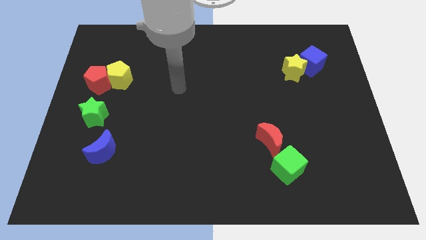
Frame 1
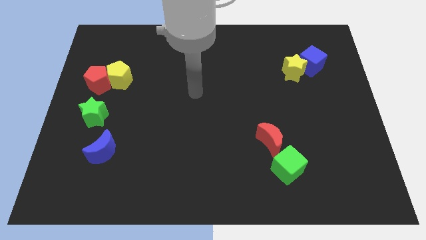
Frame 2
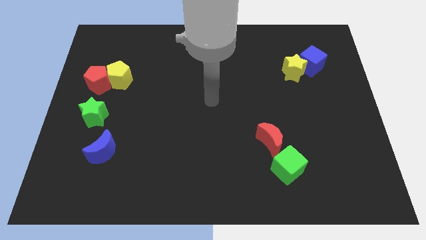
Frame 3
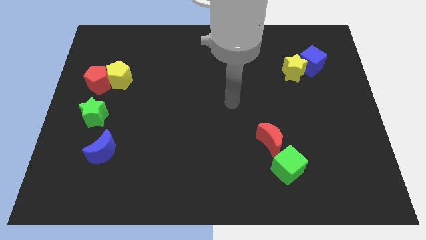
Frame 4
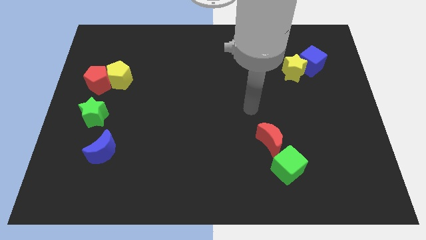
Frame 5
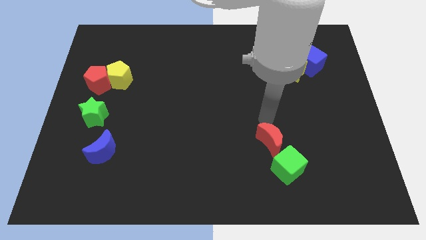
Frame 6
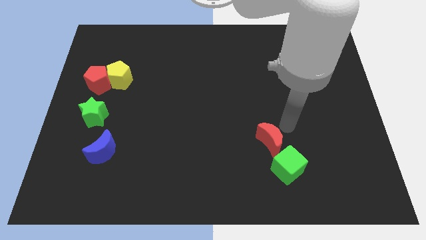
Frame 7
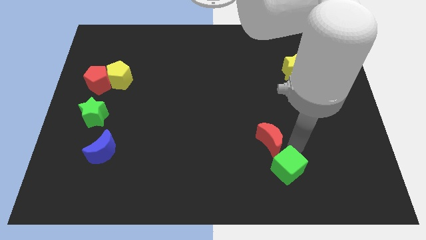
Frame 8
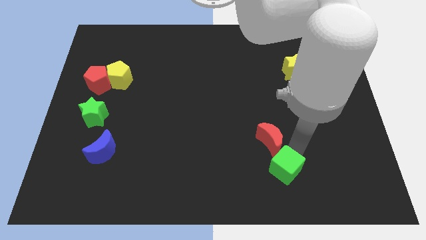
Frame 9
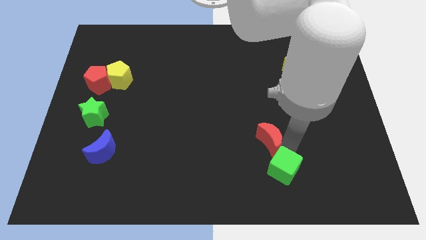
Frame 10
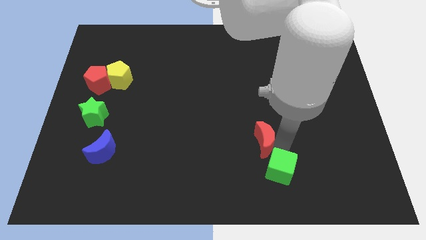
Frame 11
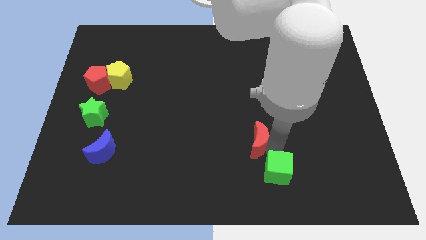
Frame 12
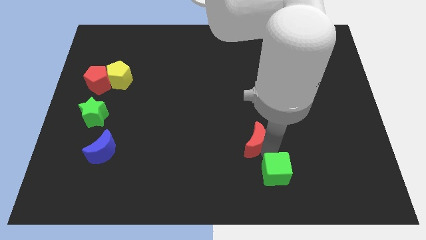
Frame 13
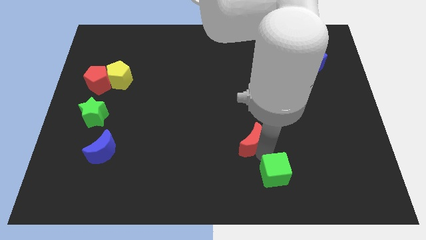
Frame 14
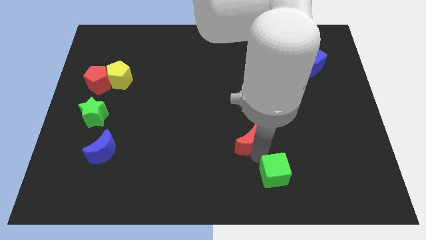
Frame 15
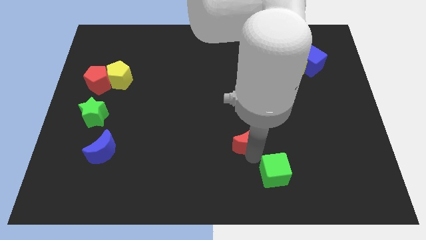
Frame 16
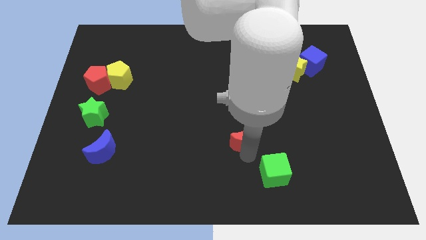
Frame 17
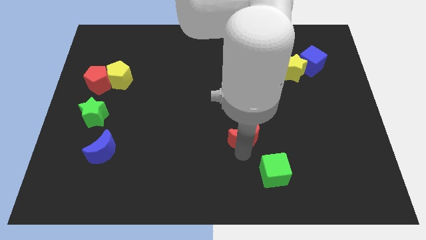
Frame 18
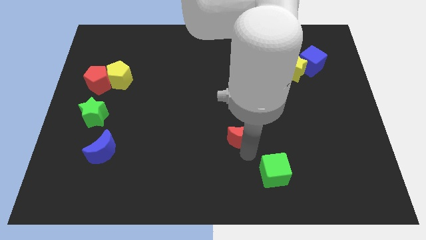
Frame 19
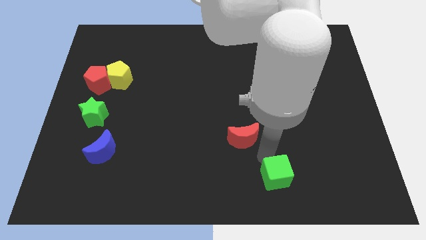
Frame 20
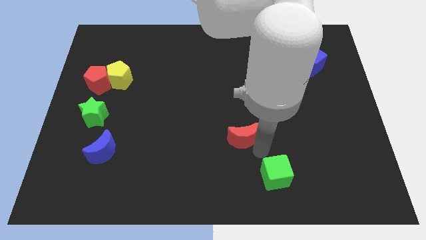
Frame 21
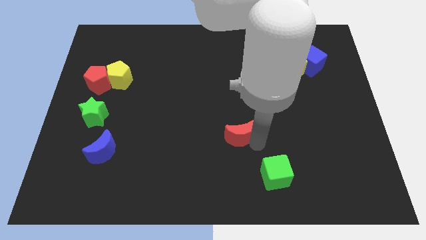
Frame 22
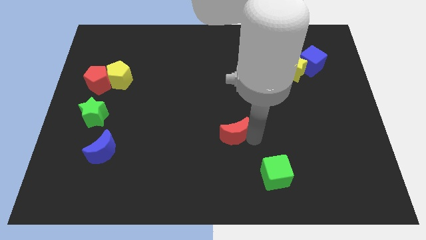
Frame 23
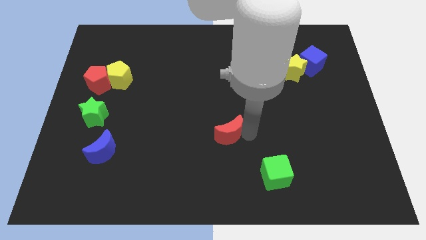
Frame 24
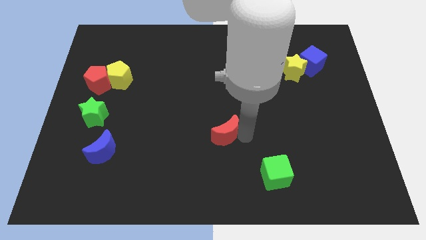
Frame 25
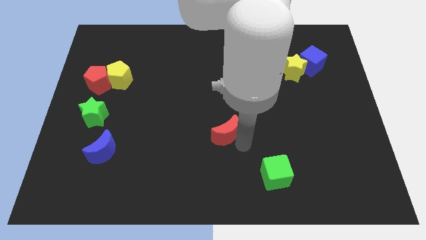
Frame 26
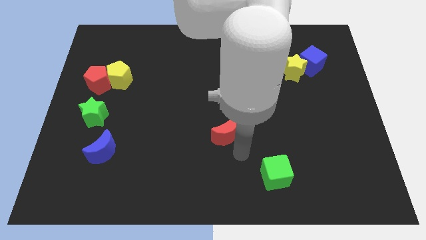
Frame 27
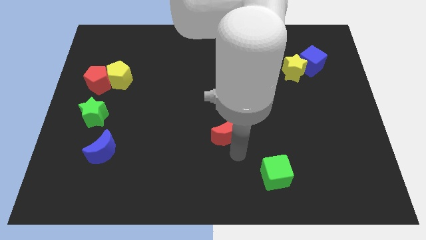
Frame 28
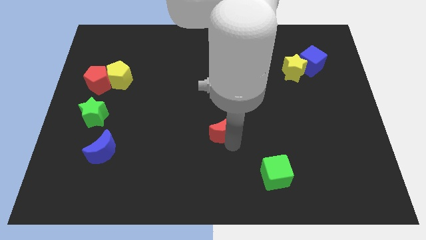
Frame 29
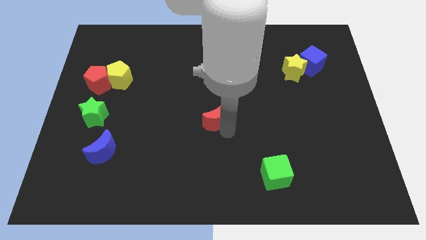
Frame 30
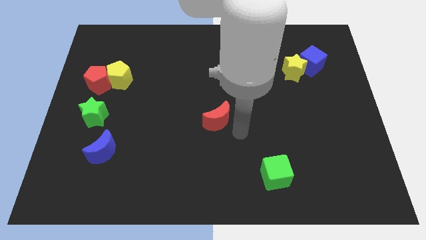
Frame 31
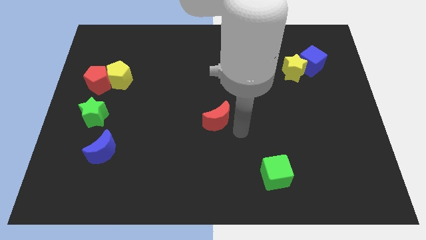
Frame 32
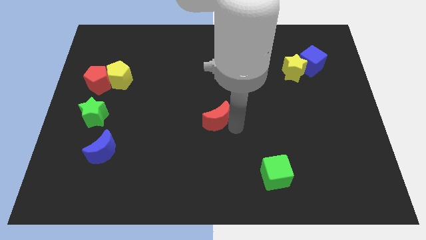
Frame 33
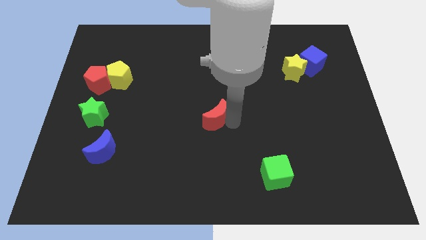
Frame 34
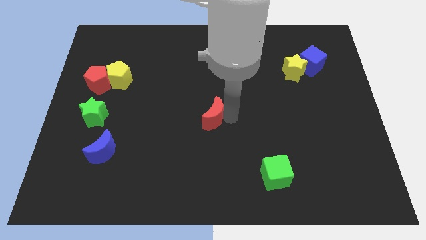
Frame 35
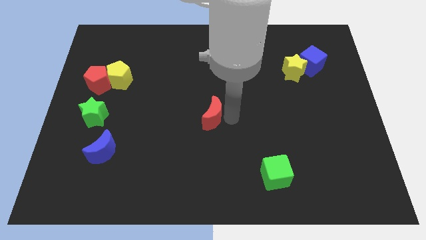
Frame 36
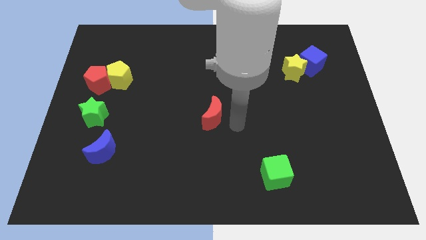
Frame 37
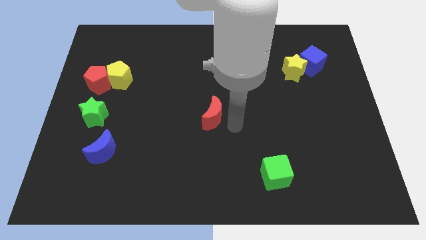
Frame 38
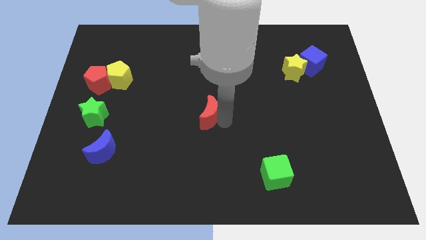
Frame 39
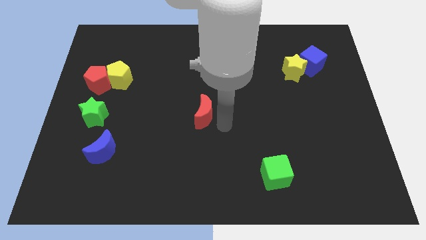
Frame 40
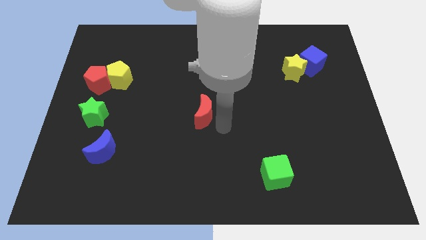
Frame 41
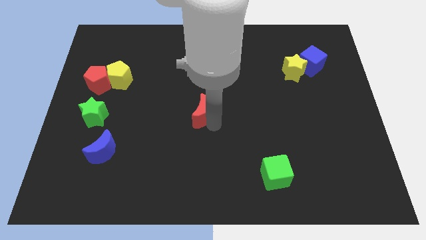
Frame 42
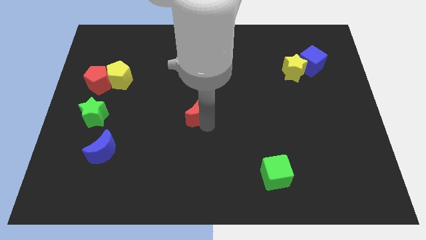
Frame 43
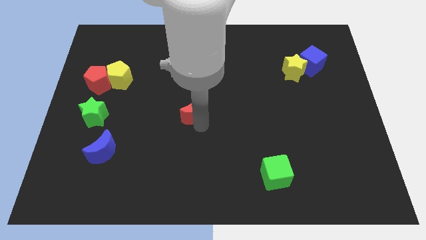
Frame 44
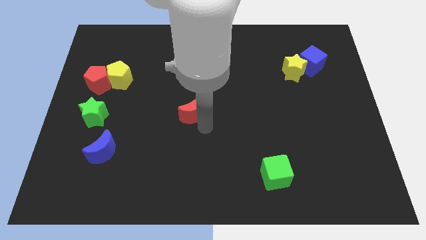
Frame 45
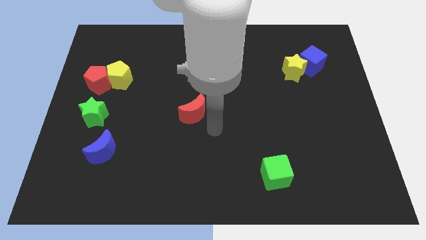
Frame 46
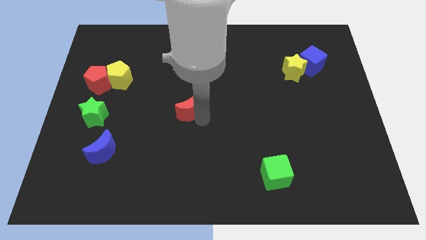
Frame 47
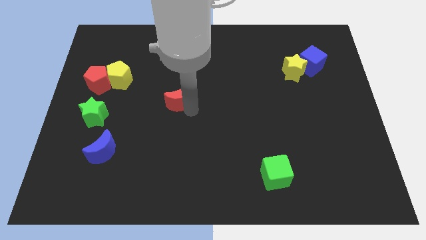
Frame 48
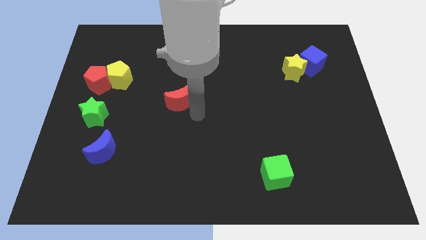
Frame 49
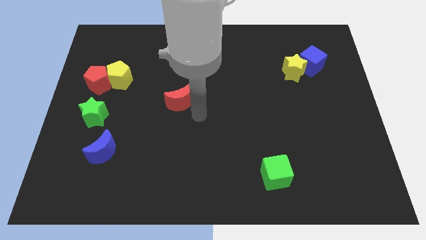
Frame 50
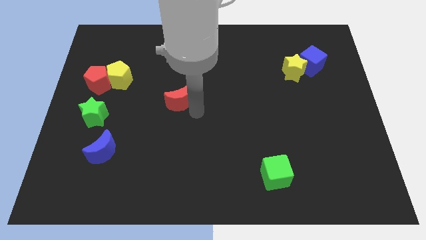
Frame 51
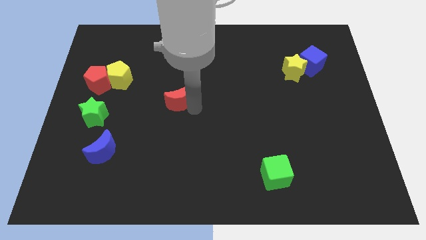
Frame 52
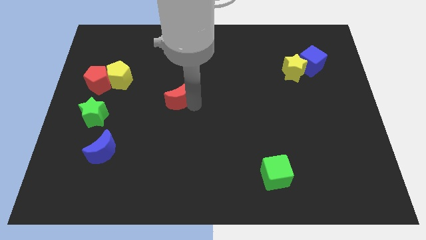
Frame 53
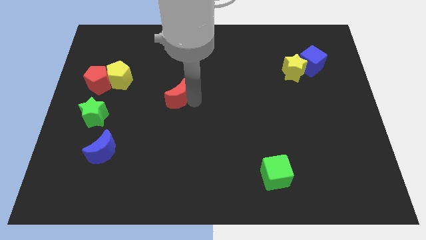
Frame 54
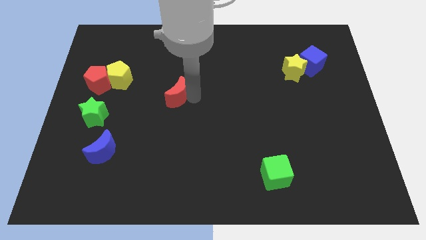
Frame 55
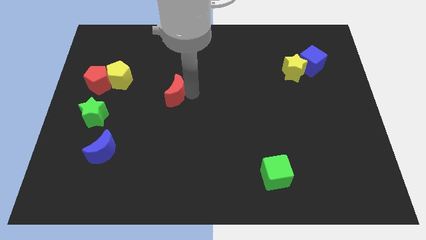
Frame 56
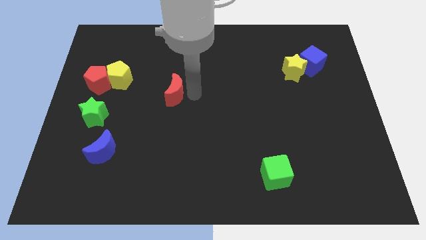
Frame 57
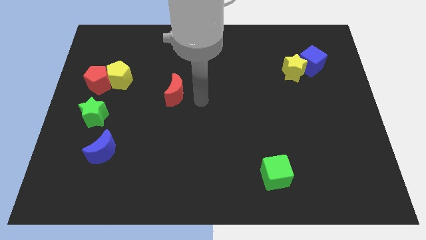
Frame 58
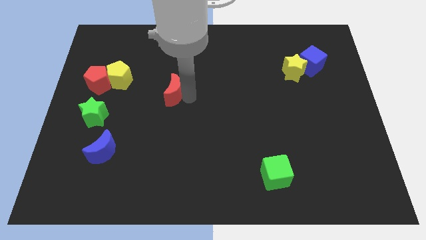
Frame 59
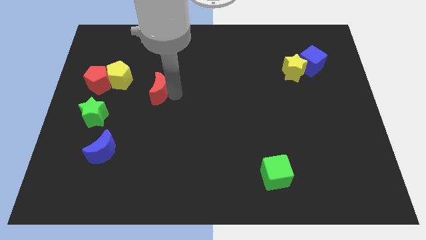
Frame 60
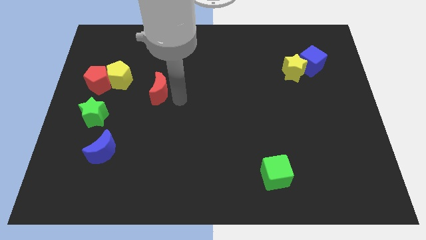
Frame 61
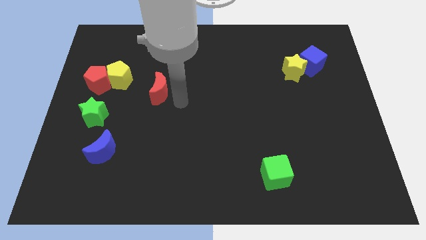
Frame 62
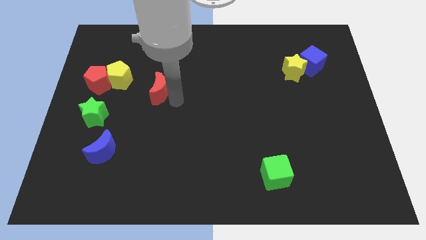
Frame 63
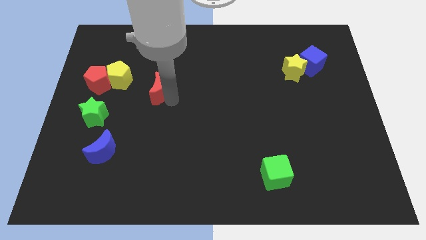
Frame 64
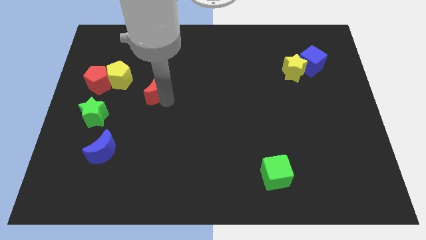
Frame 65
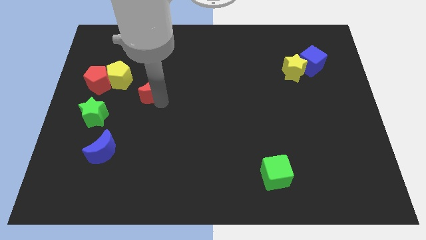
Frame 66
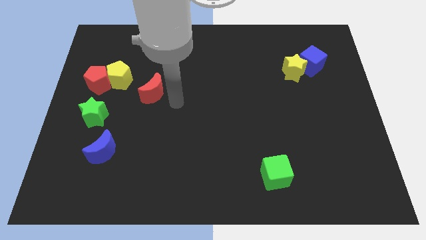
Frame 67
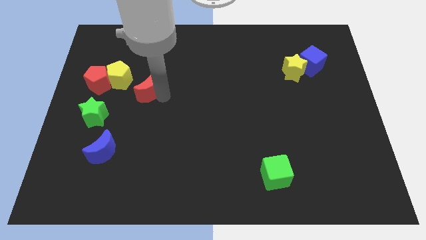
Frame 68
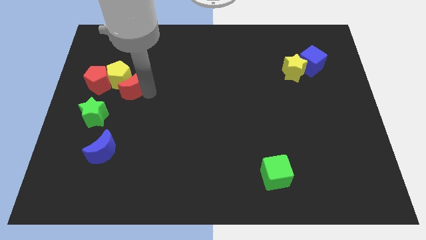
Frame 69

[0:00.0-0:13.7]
slide the red moon to the yellow pentagon
